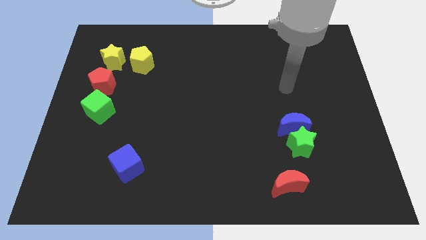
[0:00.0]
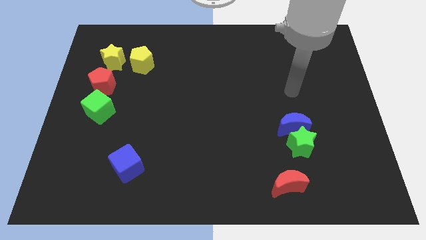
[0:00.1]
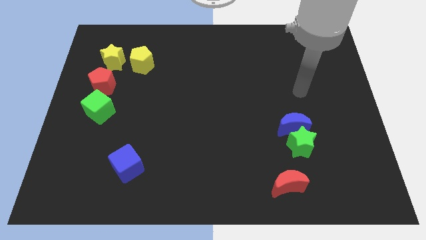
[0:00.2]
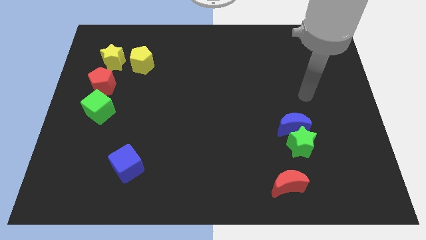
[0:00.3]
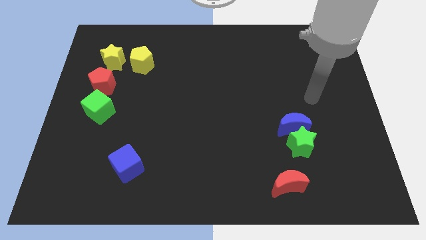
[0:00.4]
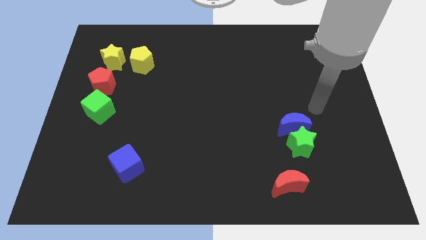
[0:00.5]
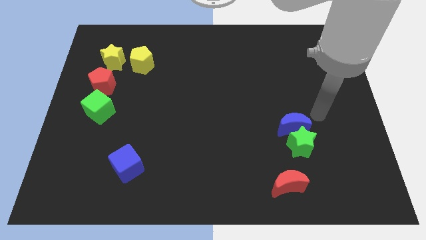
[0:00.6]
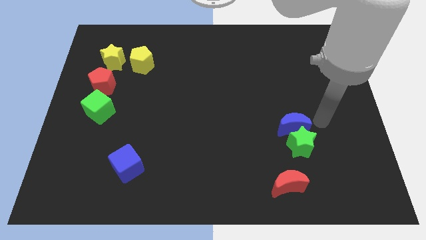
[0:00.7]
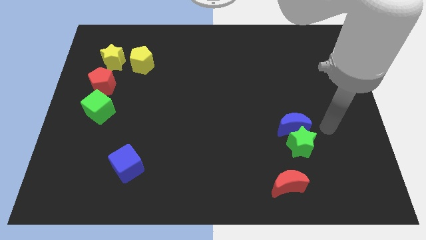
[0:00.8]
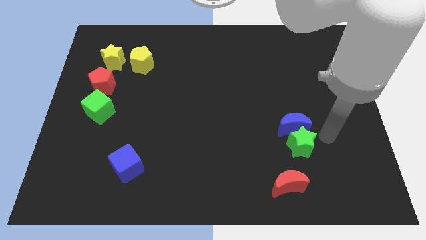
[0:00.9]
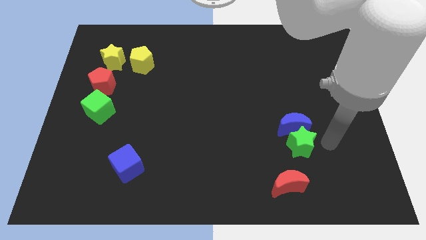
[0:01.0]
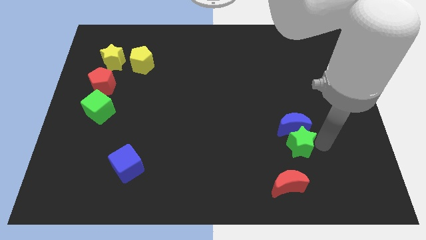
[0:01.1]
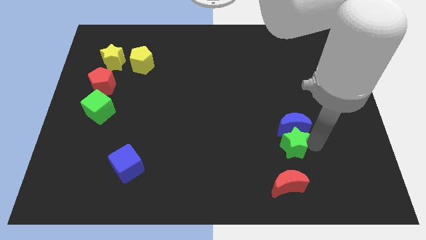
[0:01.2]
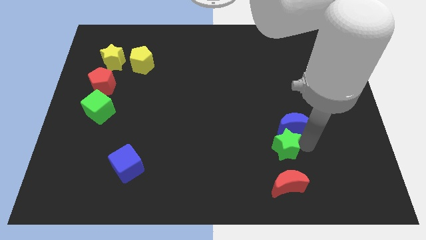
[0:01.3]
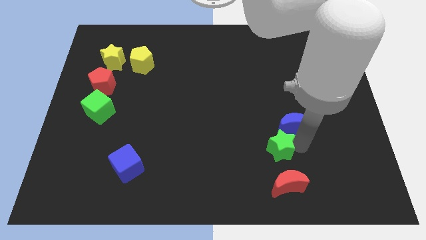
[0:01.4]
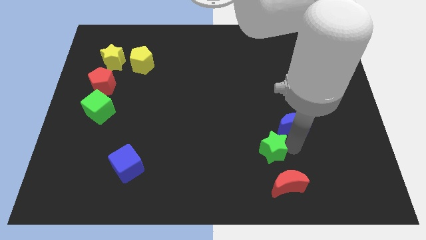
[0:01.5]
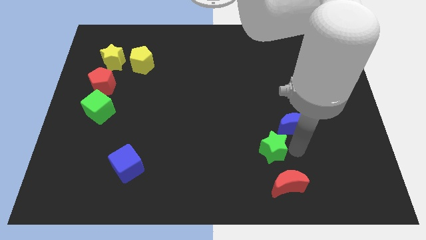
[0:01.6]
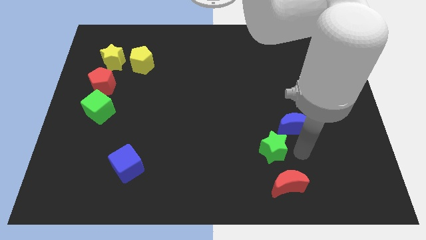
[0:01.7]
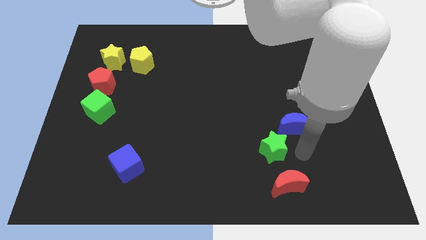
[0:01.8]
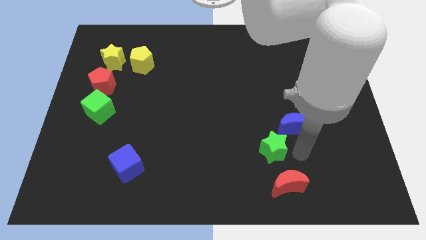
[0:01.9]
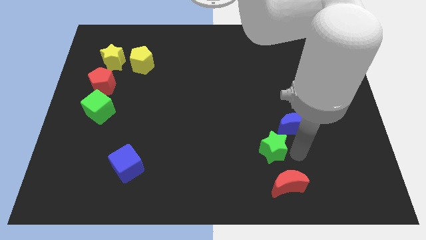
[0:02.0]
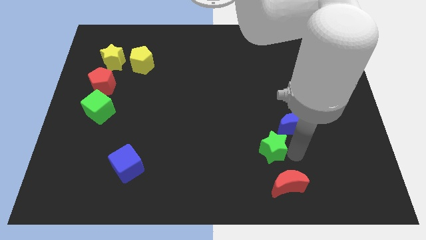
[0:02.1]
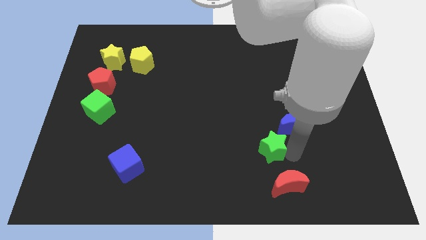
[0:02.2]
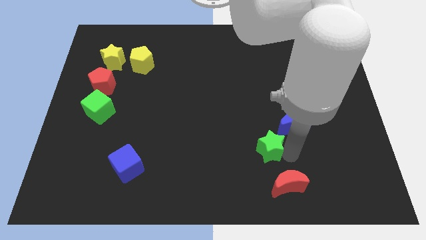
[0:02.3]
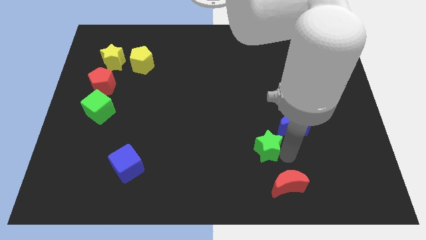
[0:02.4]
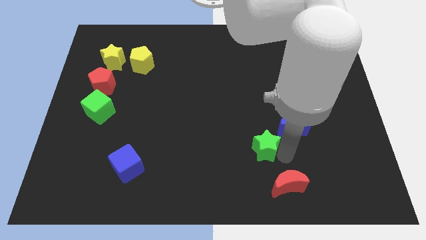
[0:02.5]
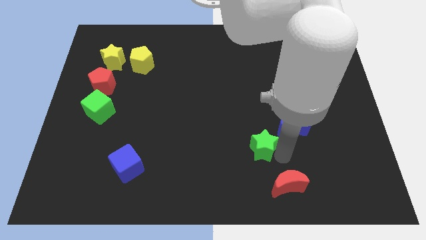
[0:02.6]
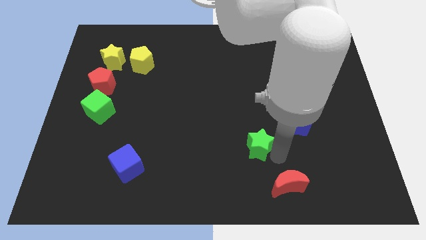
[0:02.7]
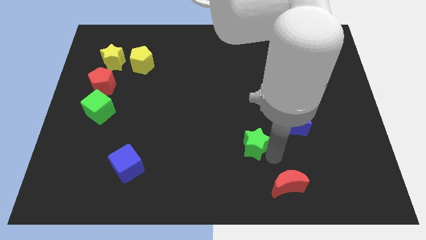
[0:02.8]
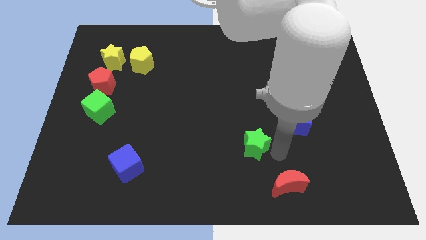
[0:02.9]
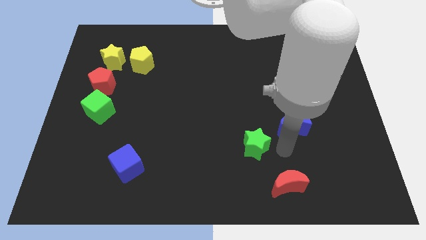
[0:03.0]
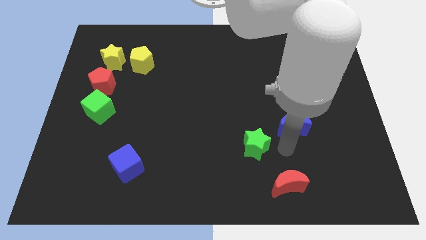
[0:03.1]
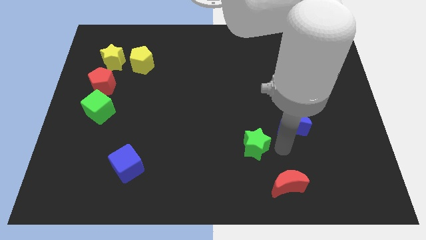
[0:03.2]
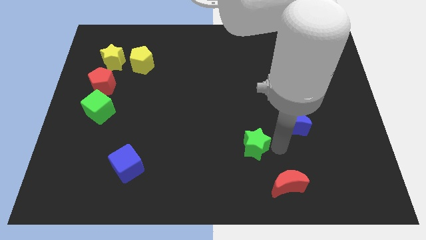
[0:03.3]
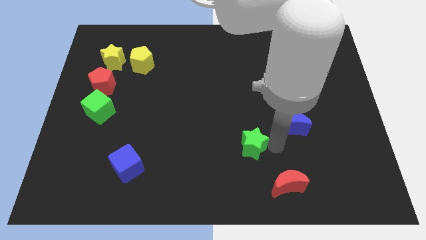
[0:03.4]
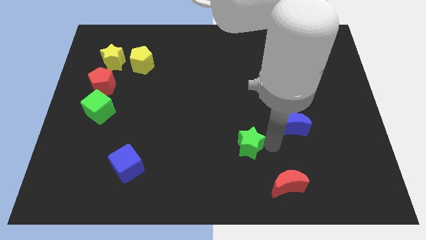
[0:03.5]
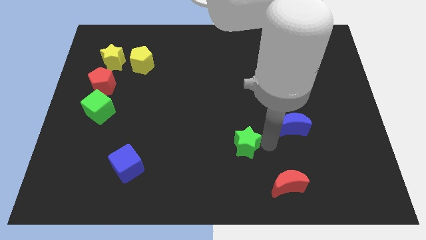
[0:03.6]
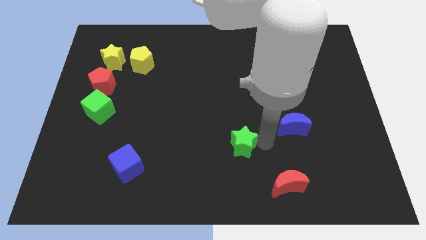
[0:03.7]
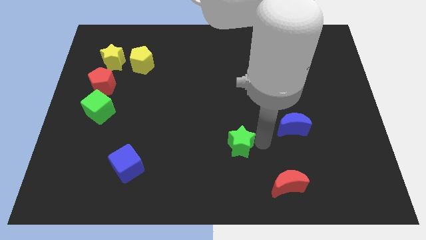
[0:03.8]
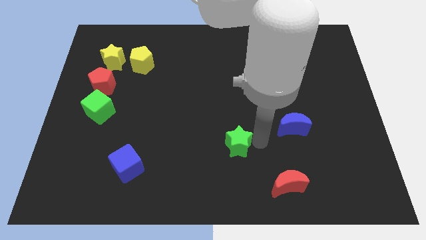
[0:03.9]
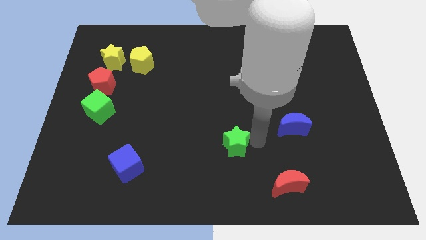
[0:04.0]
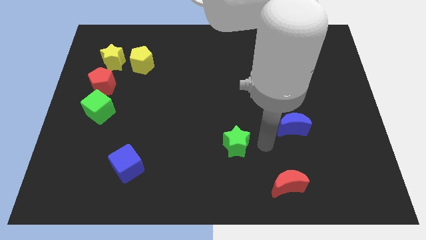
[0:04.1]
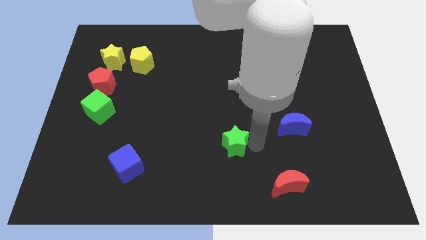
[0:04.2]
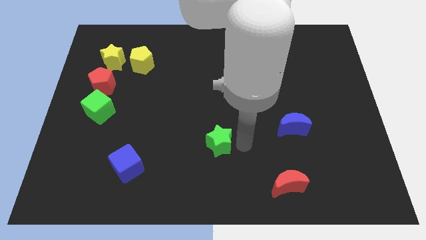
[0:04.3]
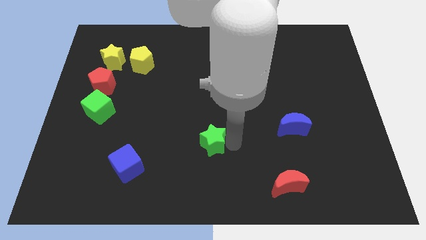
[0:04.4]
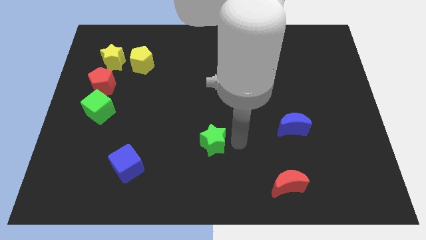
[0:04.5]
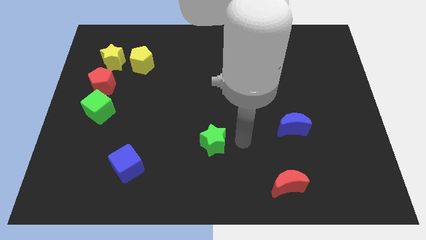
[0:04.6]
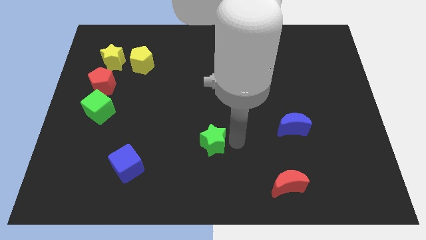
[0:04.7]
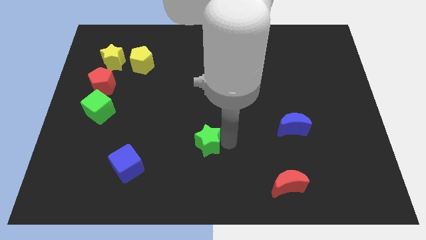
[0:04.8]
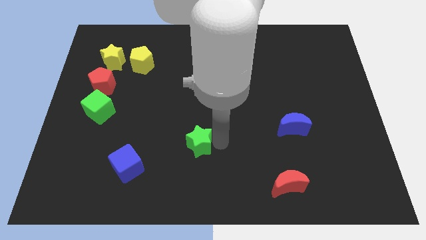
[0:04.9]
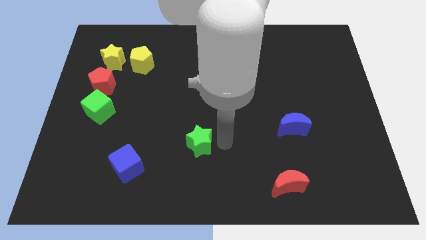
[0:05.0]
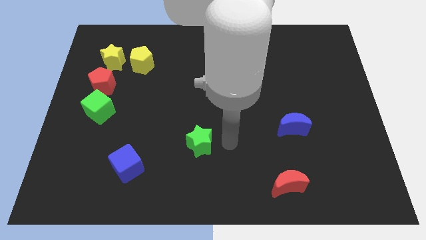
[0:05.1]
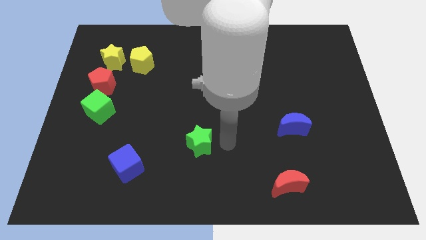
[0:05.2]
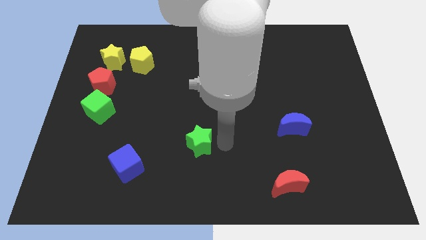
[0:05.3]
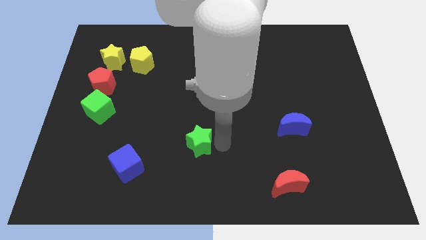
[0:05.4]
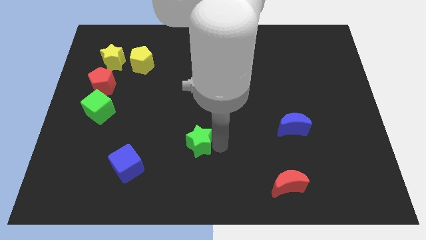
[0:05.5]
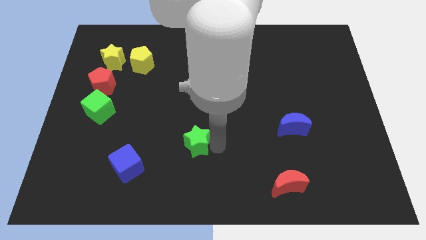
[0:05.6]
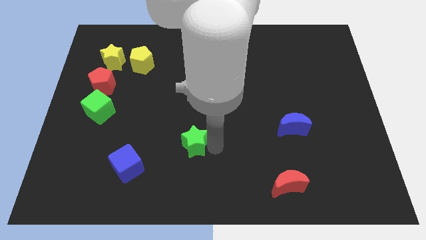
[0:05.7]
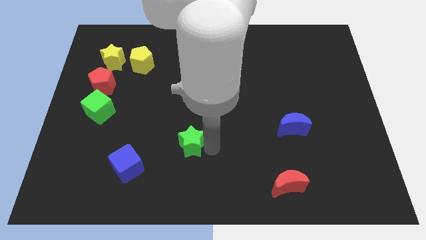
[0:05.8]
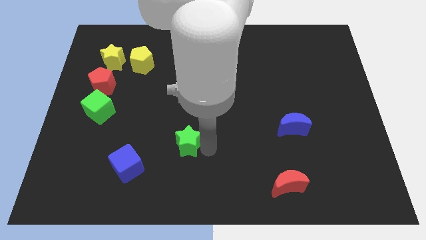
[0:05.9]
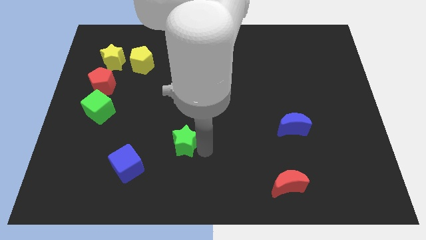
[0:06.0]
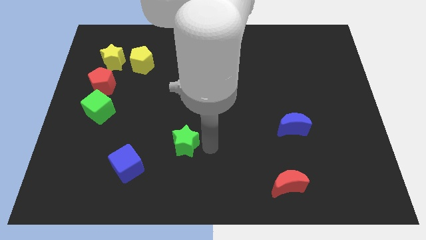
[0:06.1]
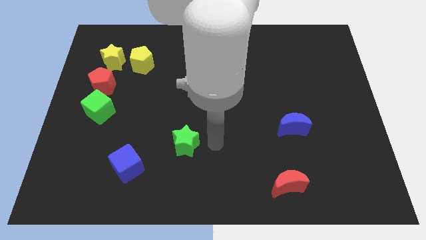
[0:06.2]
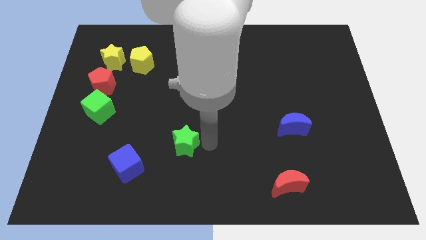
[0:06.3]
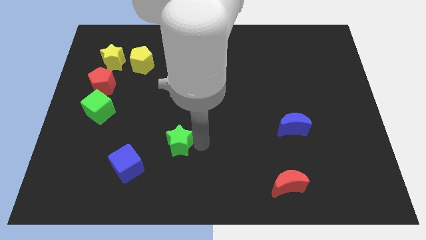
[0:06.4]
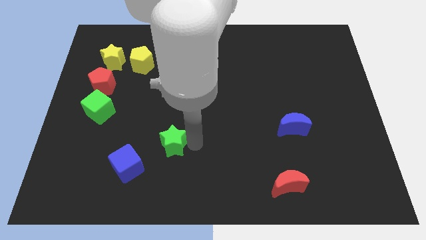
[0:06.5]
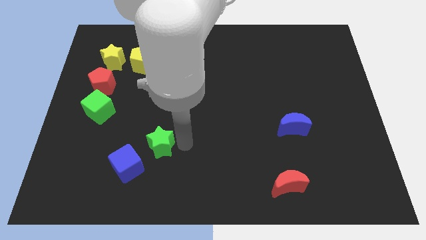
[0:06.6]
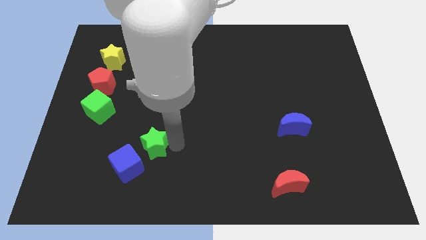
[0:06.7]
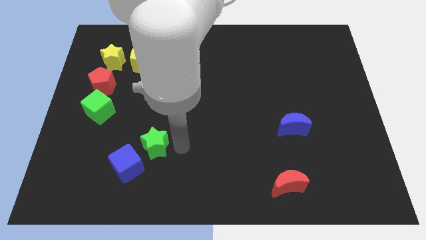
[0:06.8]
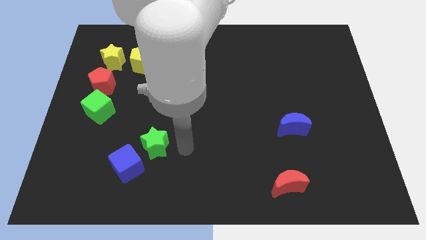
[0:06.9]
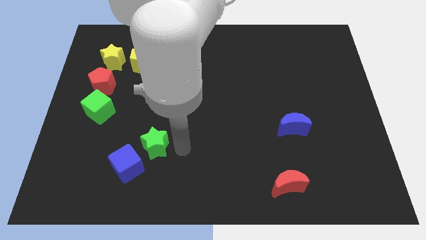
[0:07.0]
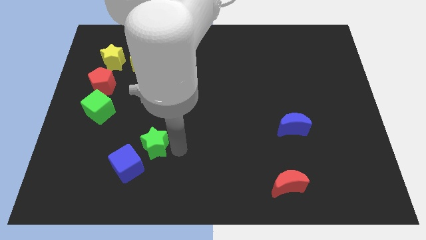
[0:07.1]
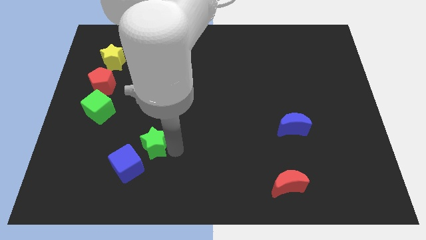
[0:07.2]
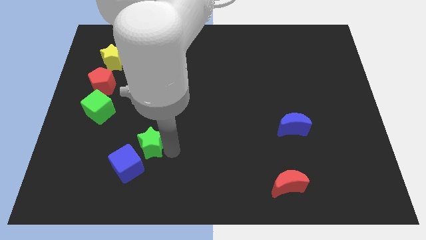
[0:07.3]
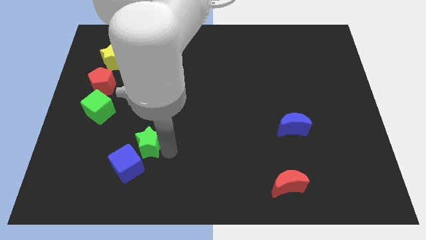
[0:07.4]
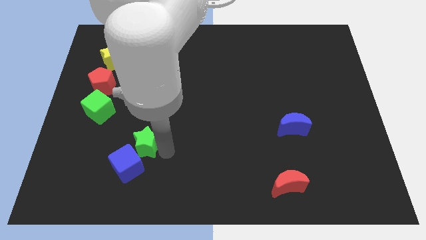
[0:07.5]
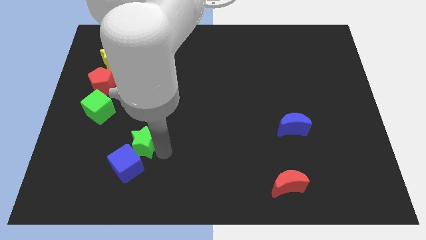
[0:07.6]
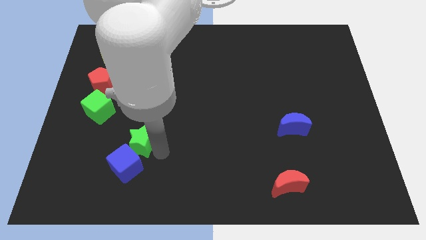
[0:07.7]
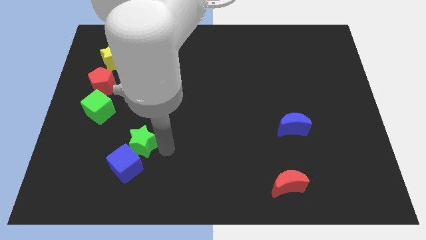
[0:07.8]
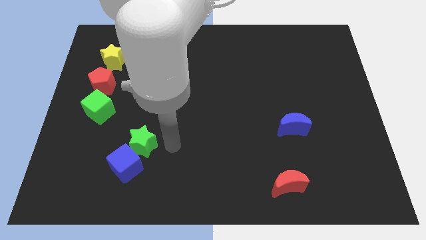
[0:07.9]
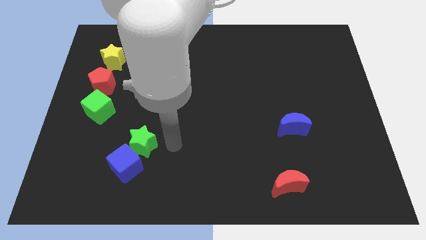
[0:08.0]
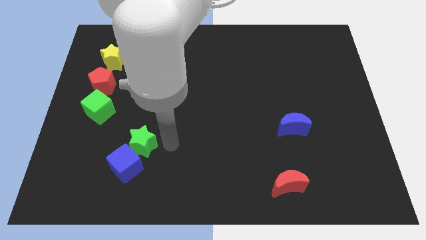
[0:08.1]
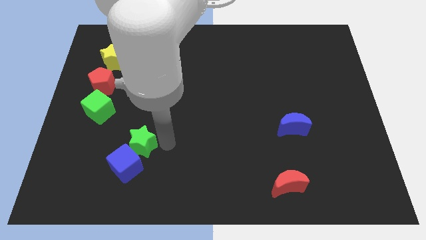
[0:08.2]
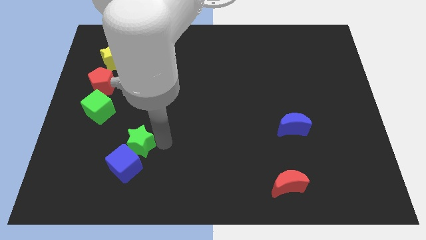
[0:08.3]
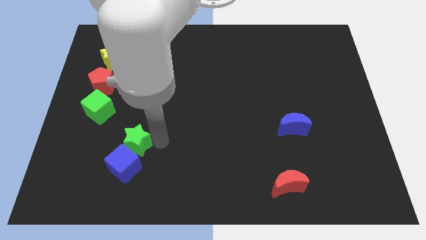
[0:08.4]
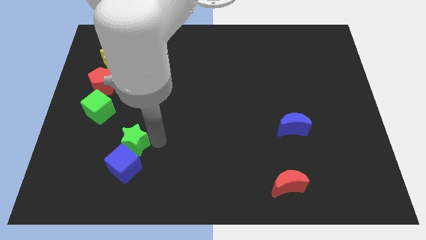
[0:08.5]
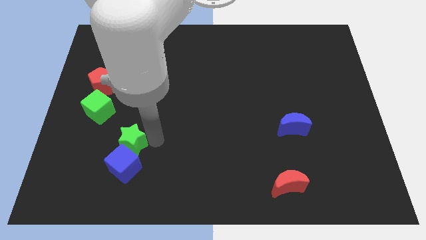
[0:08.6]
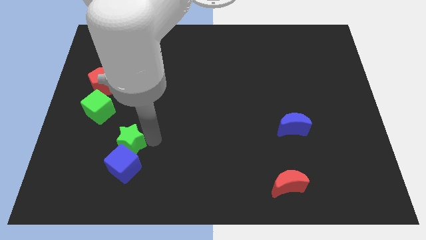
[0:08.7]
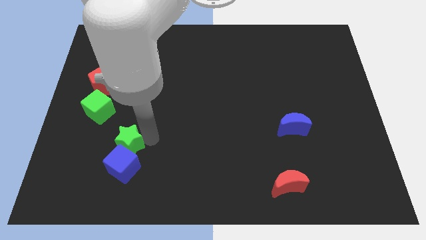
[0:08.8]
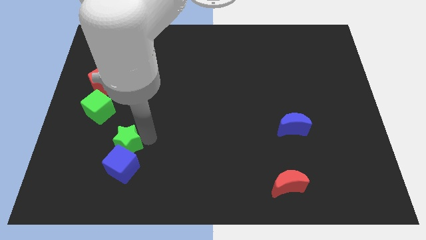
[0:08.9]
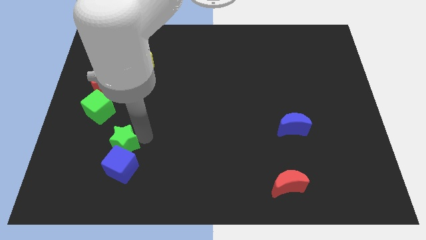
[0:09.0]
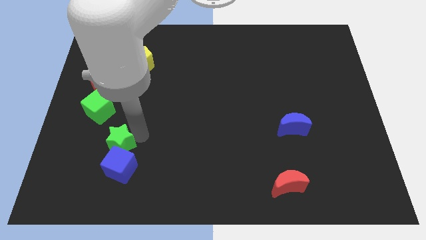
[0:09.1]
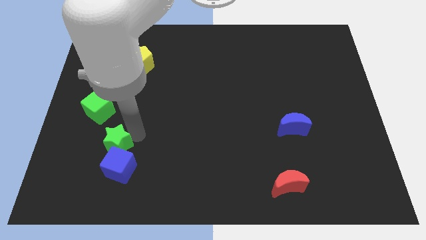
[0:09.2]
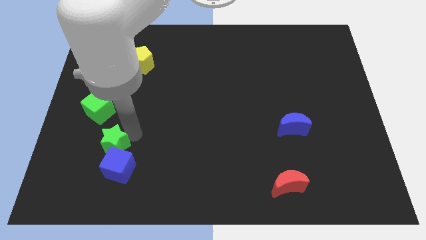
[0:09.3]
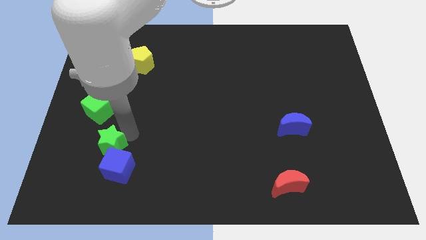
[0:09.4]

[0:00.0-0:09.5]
slide the green star below the green cube
